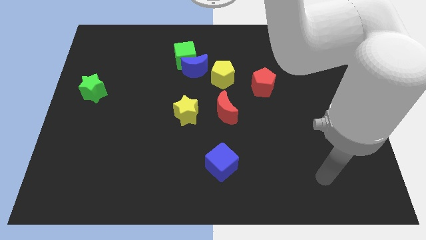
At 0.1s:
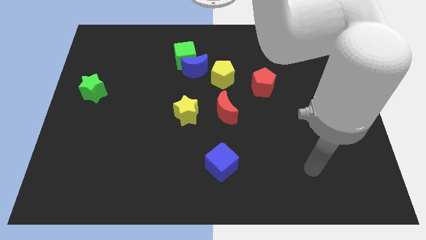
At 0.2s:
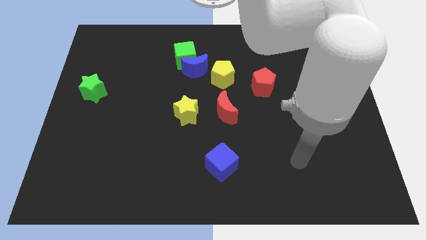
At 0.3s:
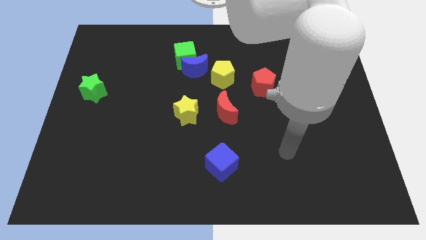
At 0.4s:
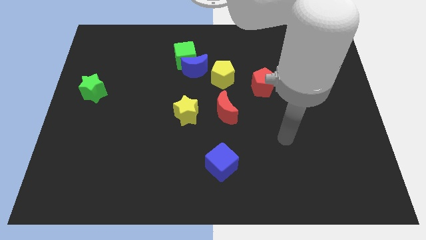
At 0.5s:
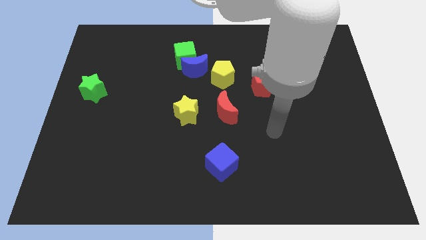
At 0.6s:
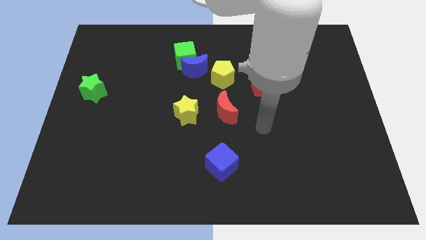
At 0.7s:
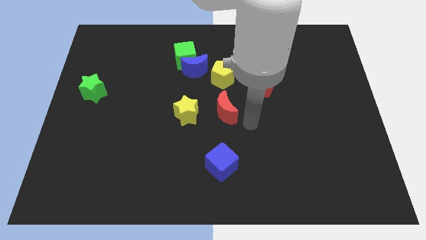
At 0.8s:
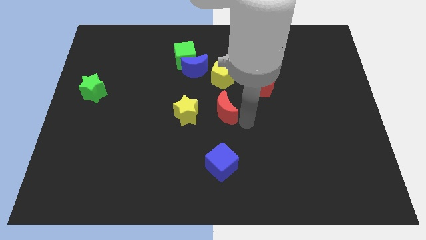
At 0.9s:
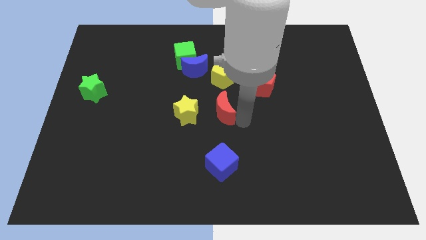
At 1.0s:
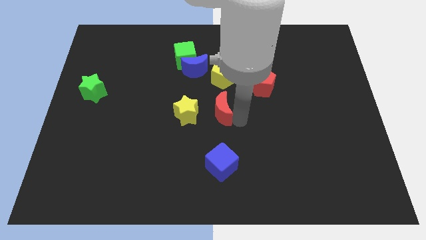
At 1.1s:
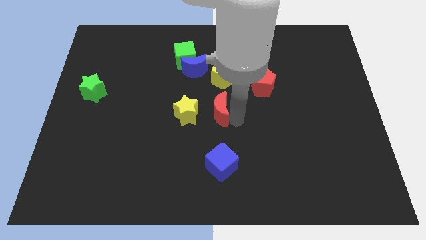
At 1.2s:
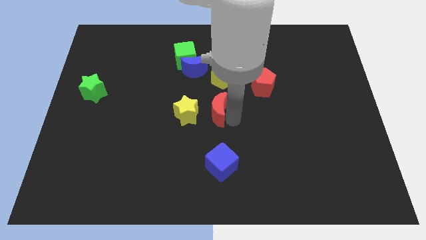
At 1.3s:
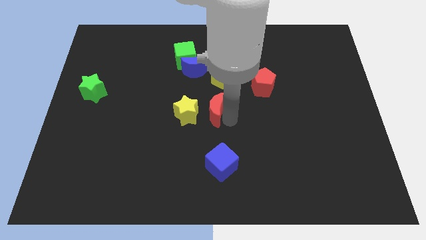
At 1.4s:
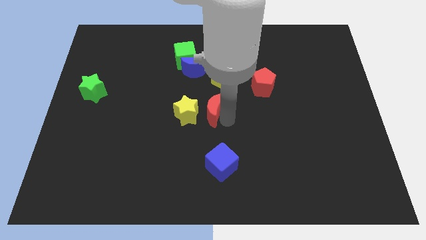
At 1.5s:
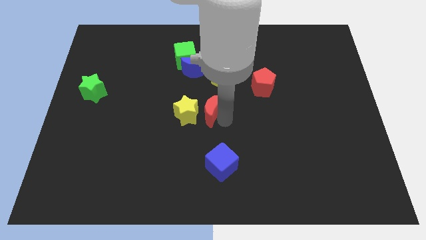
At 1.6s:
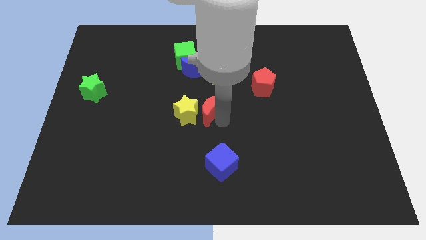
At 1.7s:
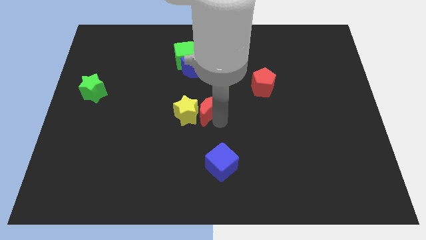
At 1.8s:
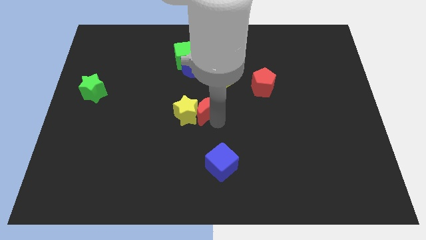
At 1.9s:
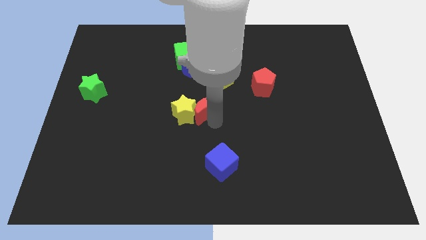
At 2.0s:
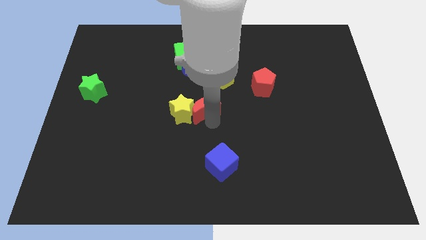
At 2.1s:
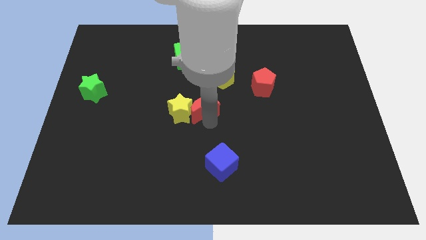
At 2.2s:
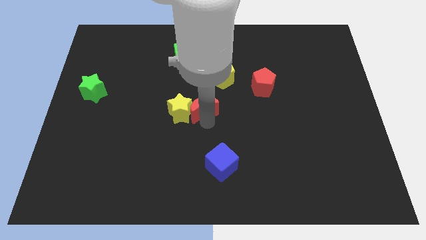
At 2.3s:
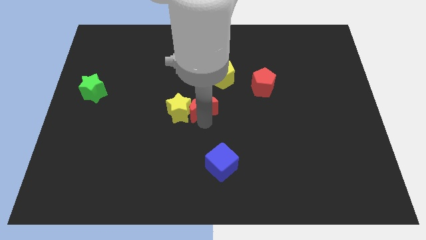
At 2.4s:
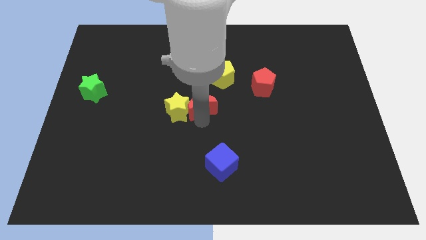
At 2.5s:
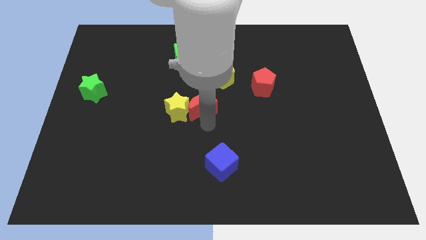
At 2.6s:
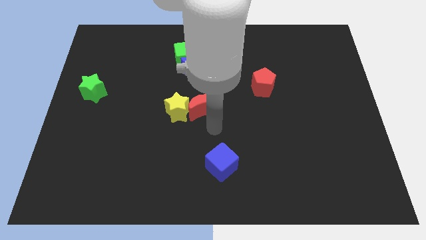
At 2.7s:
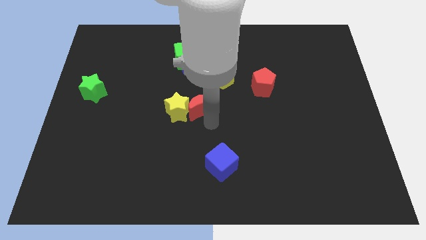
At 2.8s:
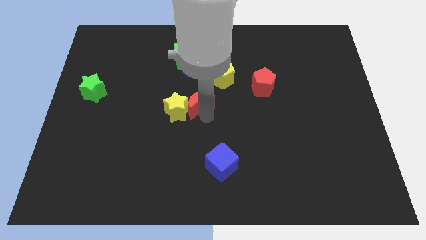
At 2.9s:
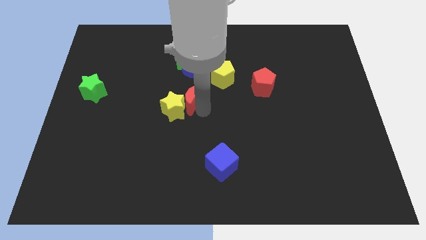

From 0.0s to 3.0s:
move the red moon somewhat up and then to the left

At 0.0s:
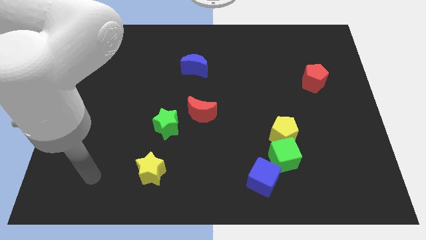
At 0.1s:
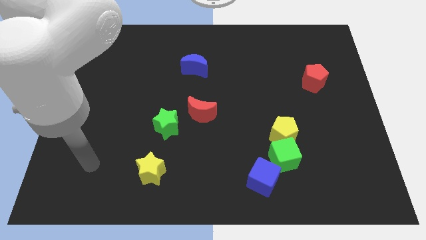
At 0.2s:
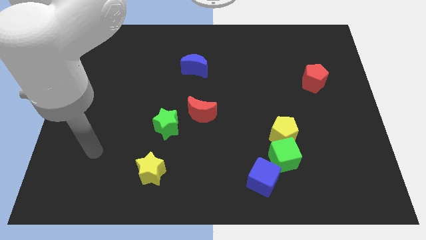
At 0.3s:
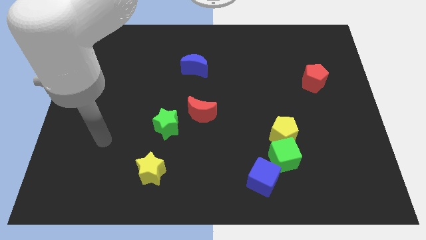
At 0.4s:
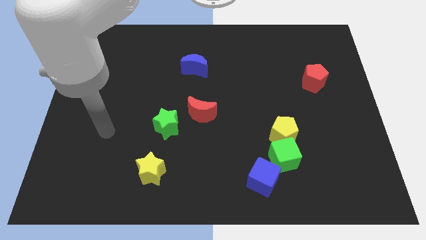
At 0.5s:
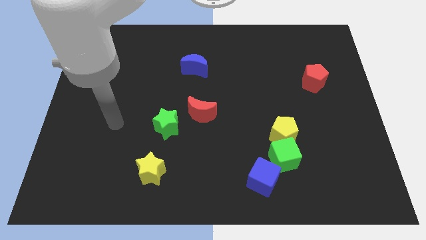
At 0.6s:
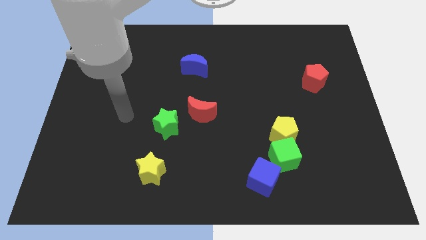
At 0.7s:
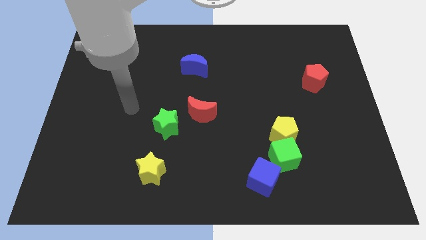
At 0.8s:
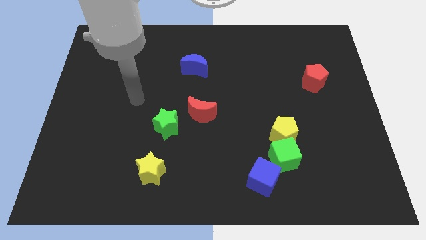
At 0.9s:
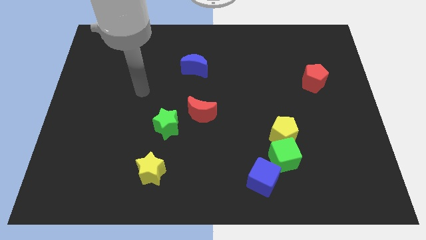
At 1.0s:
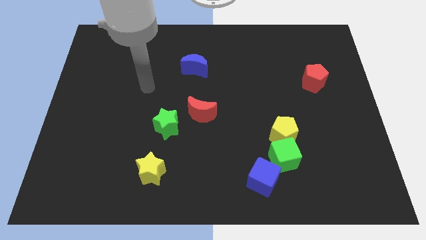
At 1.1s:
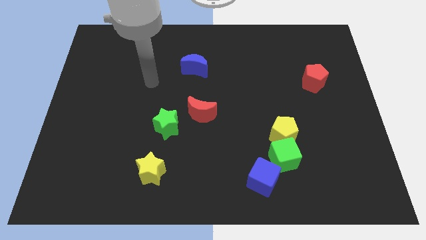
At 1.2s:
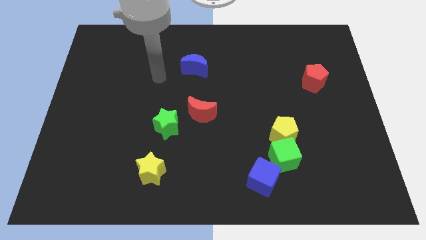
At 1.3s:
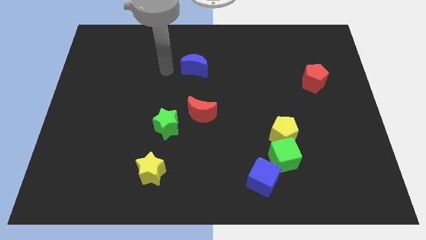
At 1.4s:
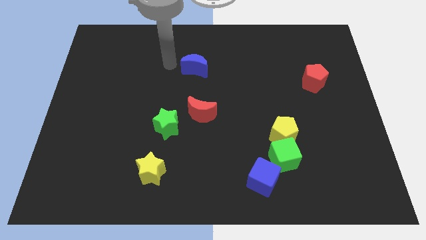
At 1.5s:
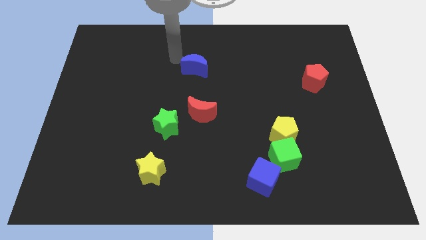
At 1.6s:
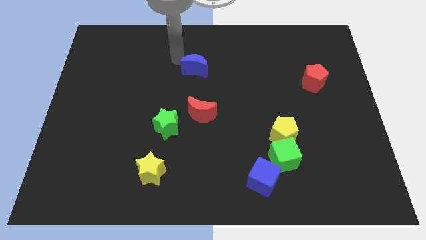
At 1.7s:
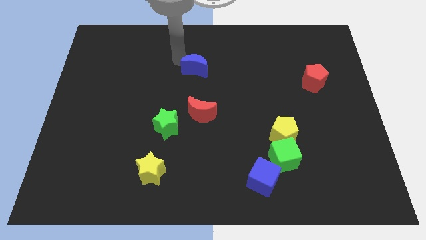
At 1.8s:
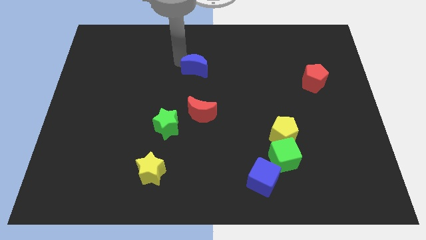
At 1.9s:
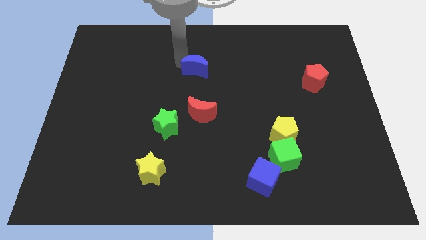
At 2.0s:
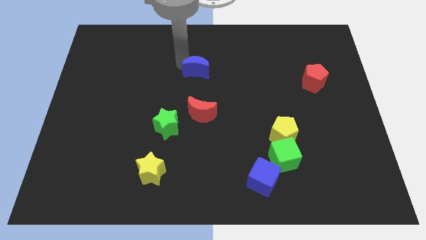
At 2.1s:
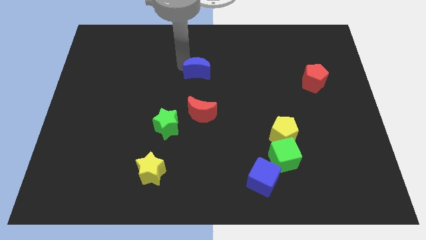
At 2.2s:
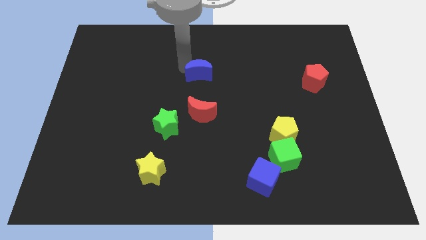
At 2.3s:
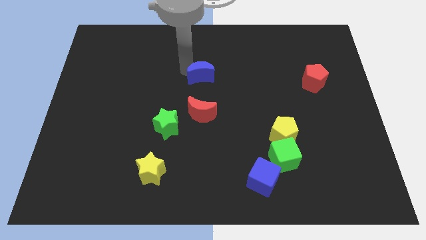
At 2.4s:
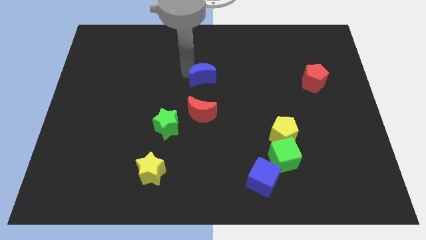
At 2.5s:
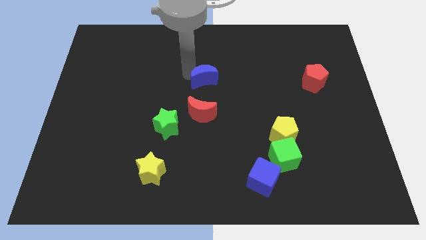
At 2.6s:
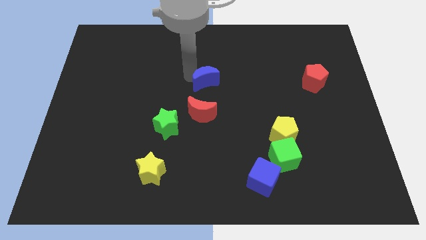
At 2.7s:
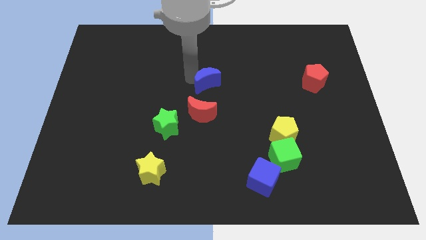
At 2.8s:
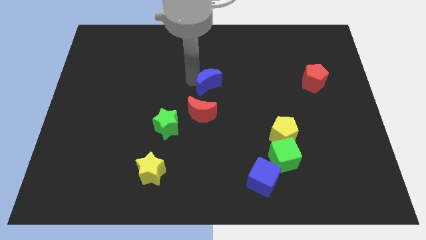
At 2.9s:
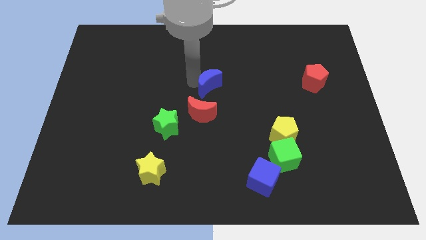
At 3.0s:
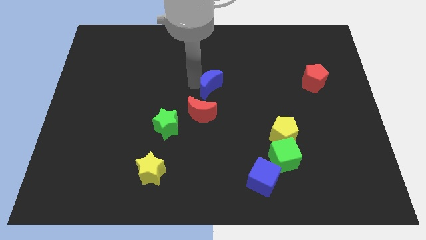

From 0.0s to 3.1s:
move the blue moon downwards and right diagonally a little

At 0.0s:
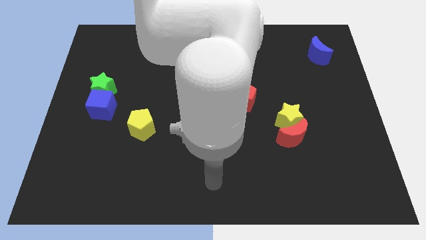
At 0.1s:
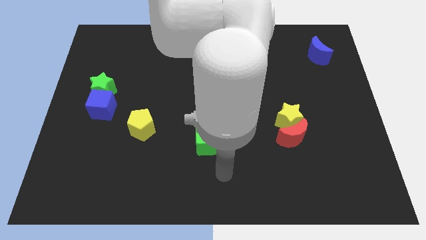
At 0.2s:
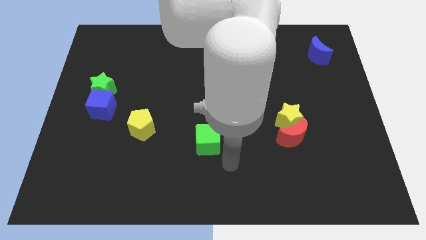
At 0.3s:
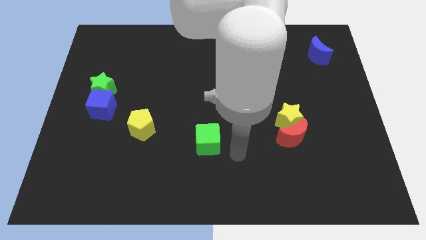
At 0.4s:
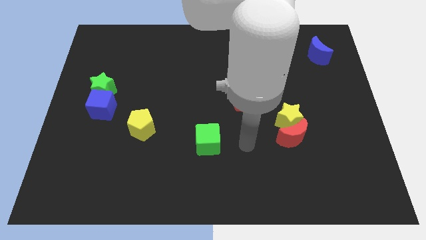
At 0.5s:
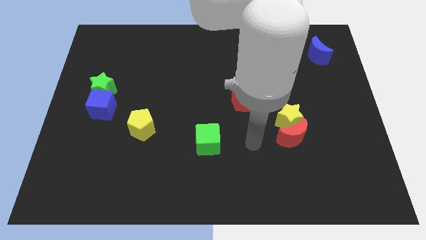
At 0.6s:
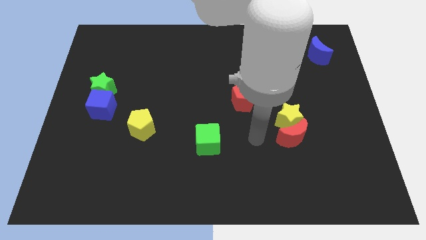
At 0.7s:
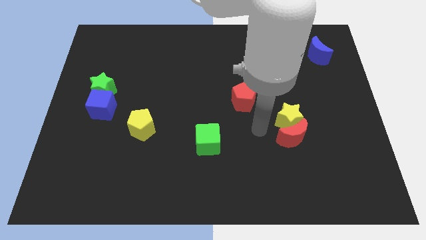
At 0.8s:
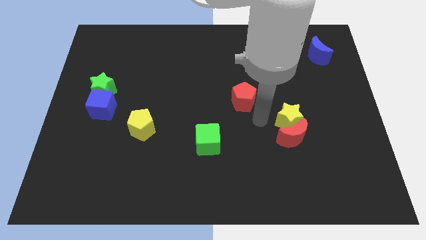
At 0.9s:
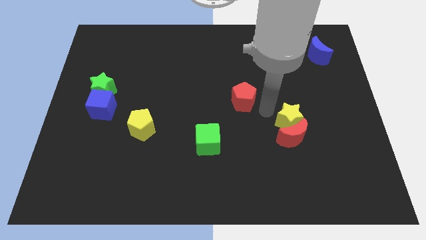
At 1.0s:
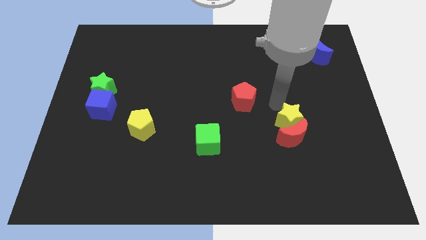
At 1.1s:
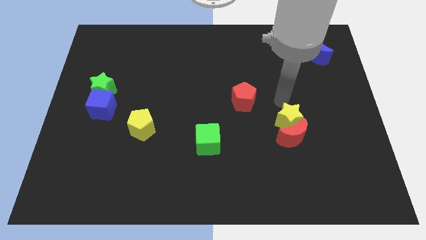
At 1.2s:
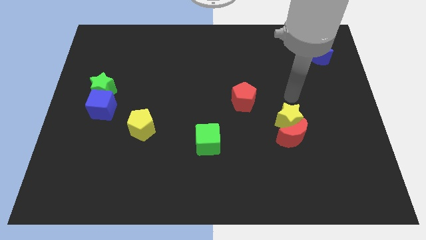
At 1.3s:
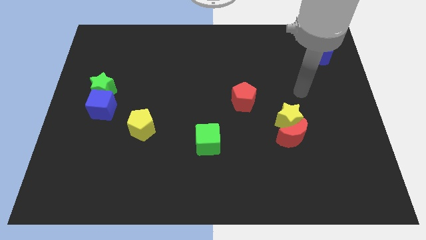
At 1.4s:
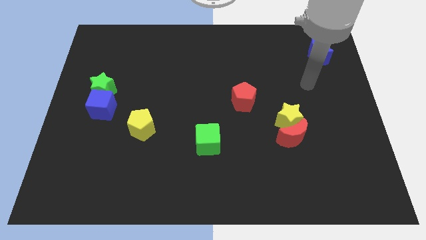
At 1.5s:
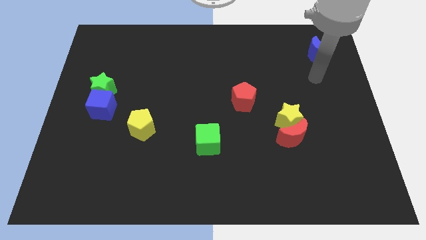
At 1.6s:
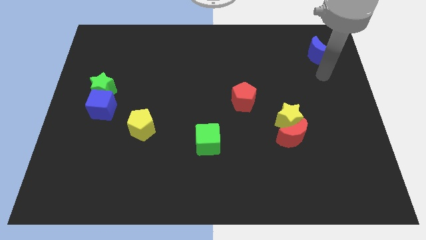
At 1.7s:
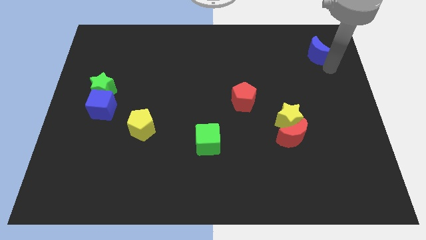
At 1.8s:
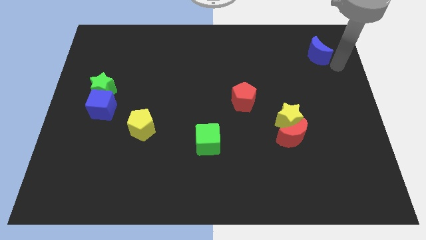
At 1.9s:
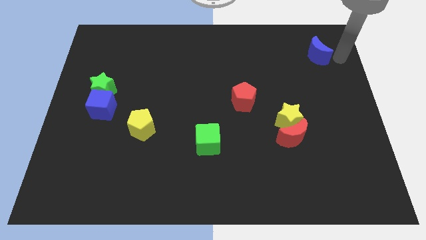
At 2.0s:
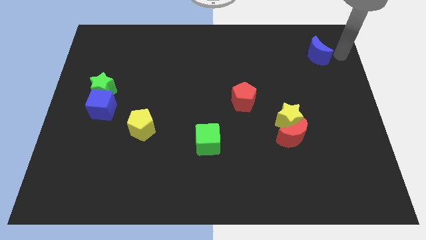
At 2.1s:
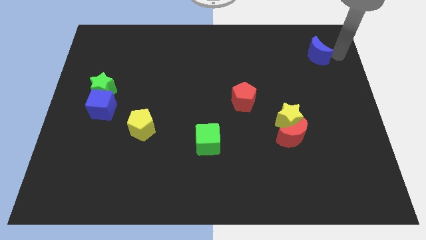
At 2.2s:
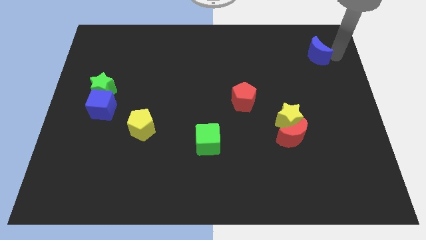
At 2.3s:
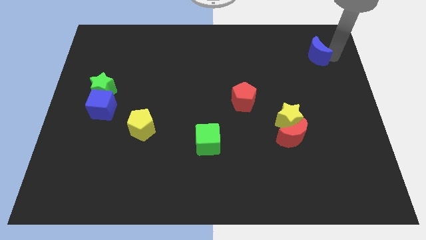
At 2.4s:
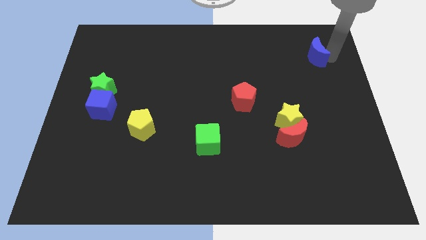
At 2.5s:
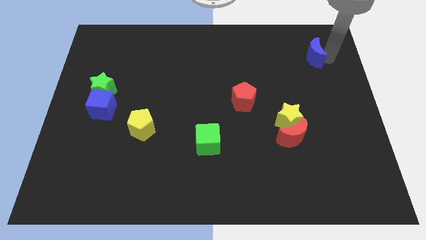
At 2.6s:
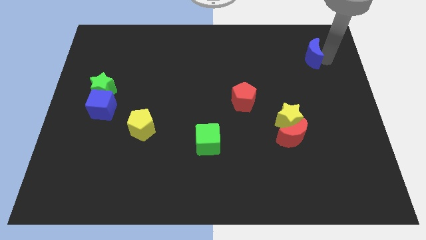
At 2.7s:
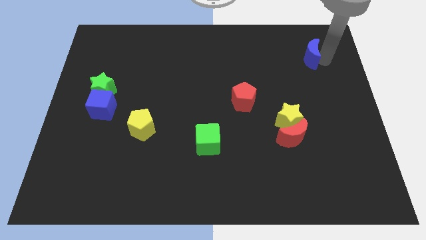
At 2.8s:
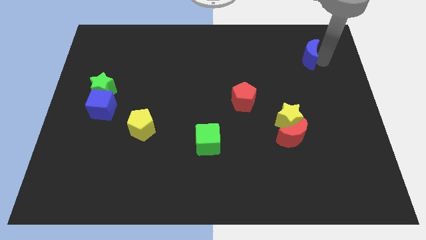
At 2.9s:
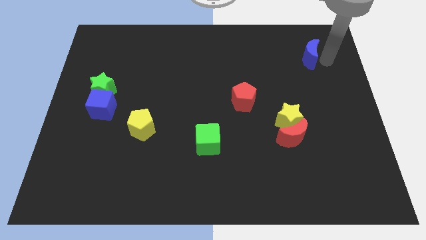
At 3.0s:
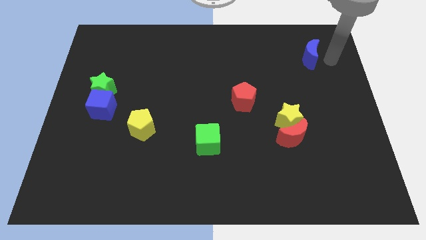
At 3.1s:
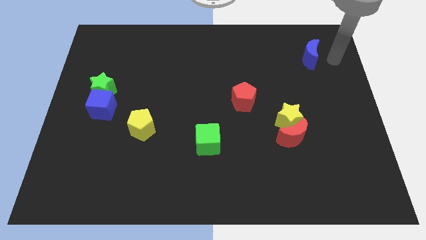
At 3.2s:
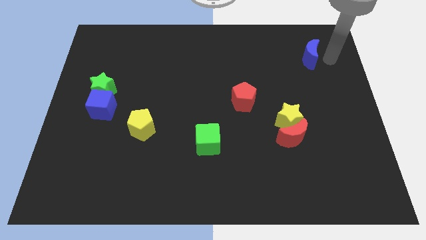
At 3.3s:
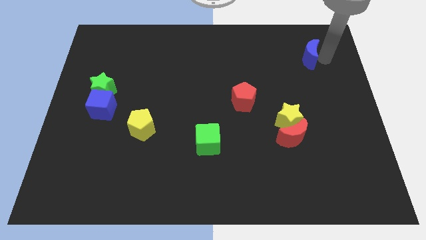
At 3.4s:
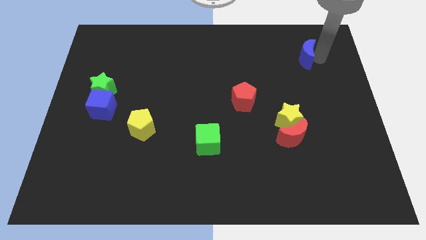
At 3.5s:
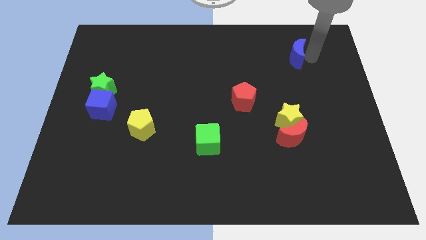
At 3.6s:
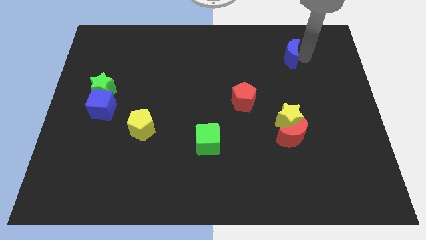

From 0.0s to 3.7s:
slide the blue moon a little to the left
